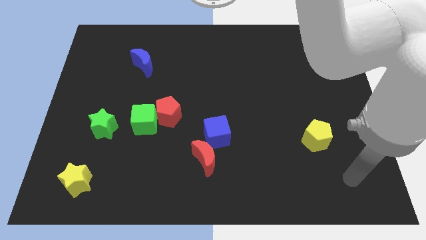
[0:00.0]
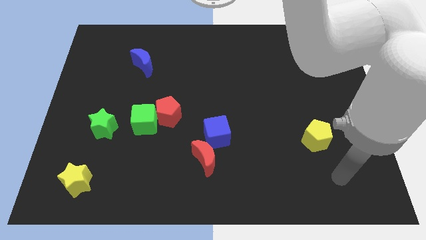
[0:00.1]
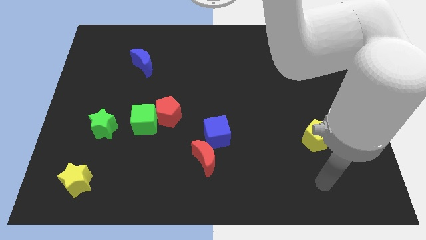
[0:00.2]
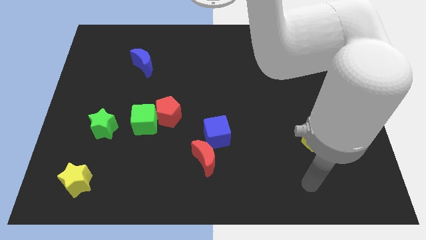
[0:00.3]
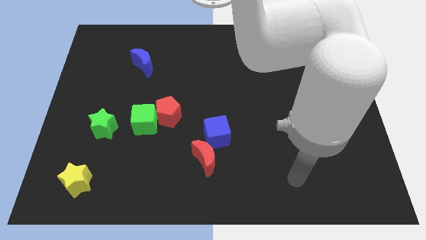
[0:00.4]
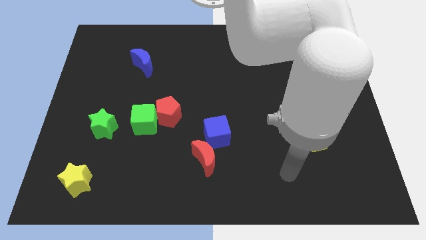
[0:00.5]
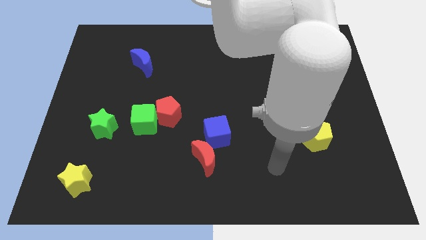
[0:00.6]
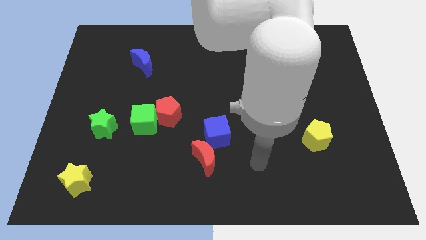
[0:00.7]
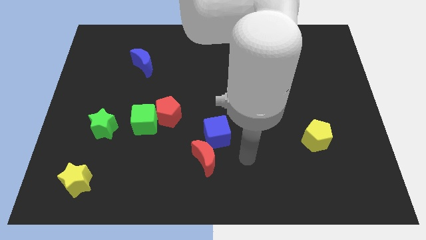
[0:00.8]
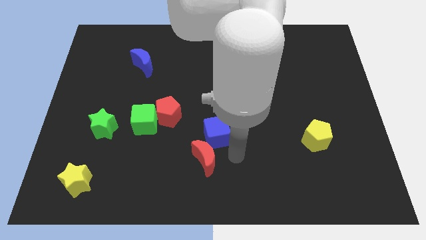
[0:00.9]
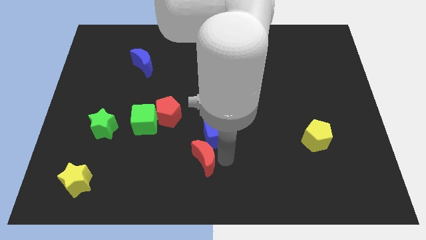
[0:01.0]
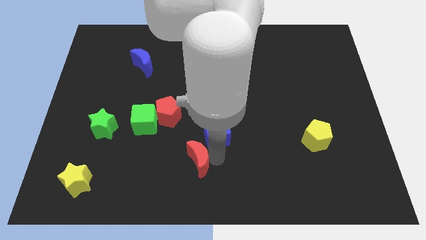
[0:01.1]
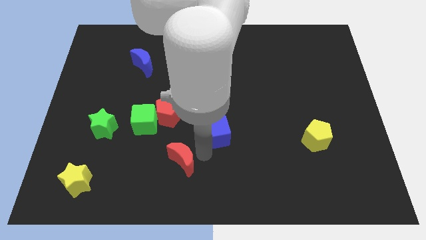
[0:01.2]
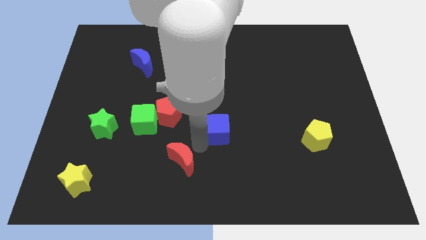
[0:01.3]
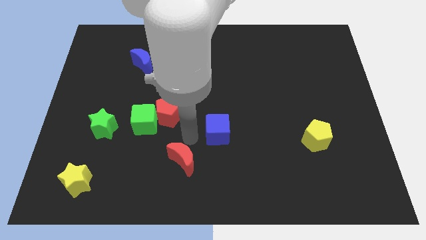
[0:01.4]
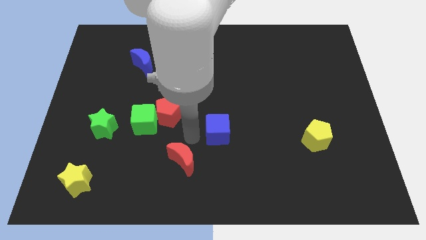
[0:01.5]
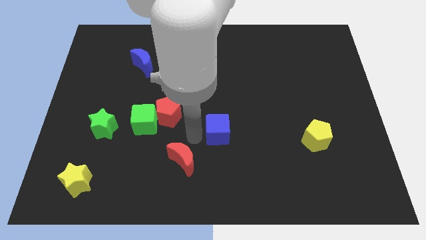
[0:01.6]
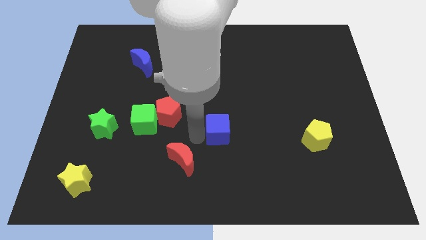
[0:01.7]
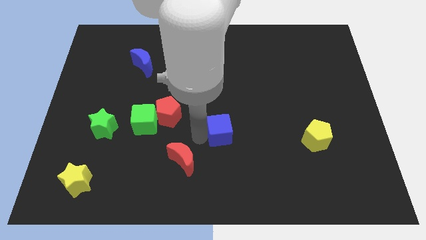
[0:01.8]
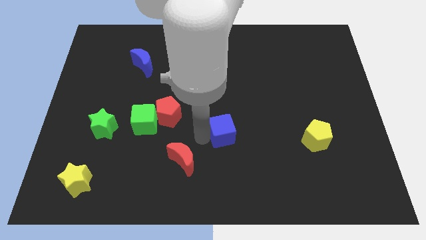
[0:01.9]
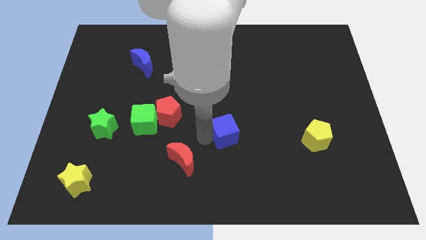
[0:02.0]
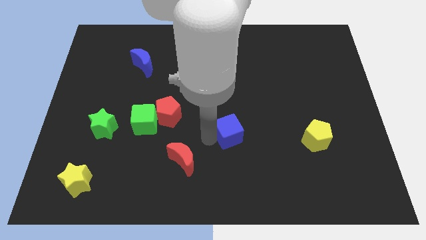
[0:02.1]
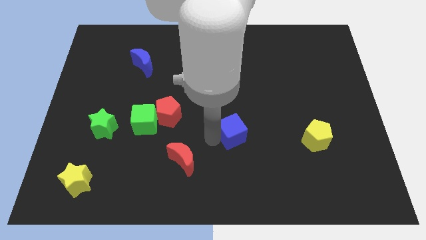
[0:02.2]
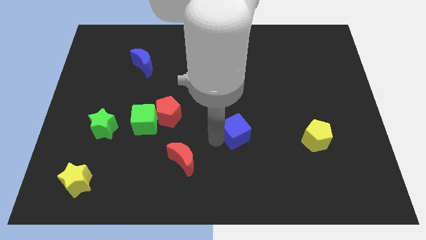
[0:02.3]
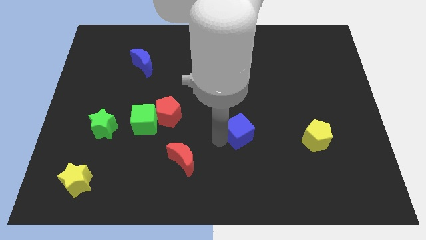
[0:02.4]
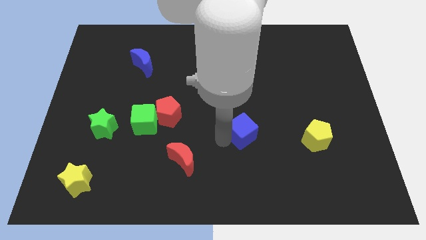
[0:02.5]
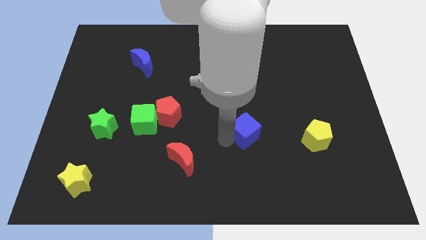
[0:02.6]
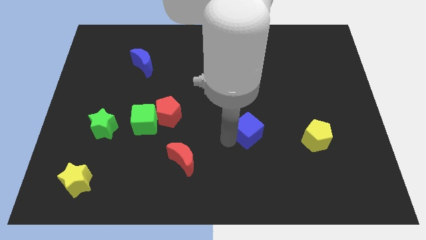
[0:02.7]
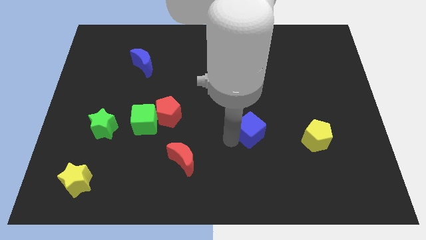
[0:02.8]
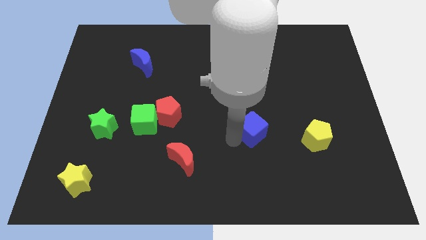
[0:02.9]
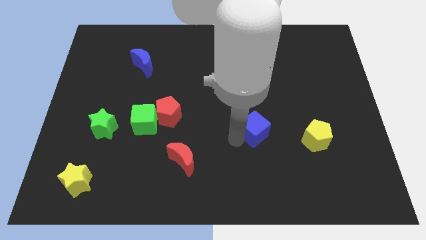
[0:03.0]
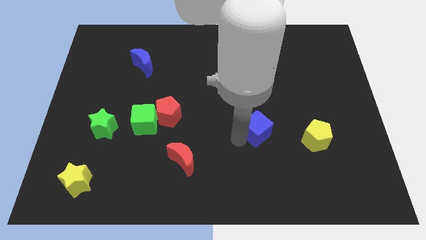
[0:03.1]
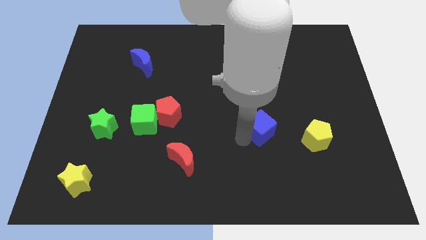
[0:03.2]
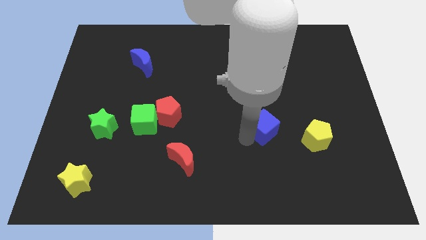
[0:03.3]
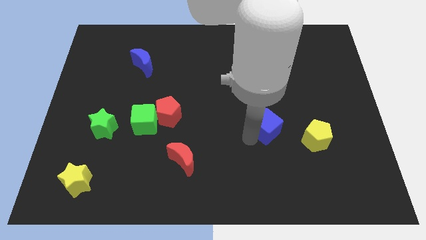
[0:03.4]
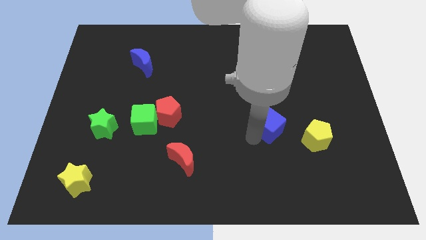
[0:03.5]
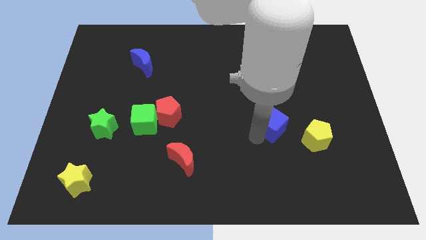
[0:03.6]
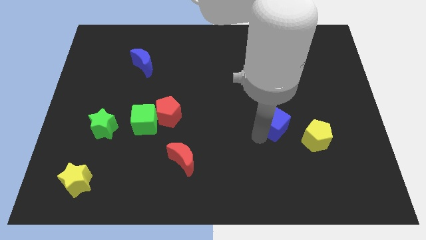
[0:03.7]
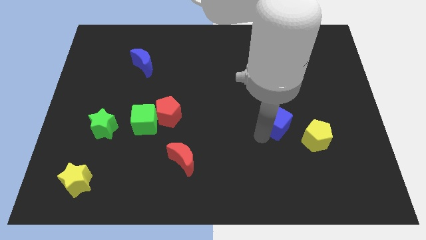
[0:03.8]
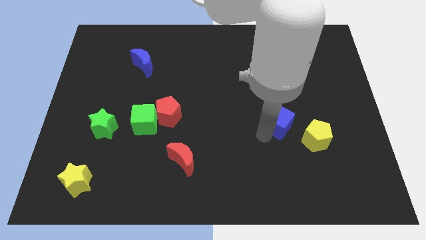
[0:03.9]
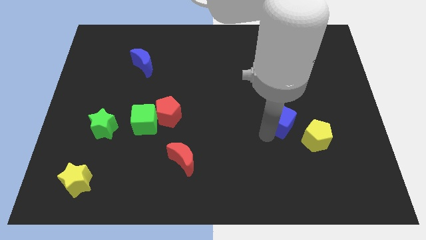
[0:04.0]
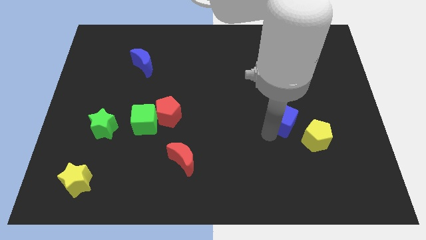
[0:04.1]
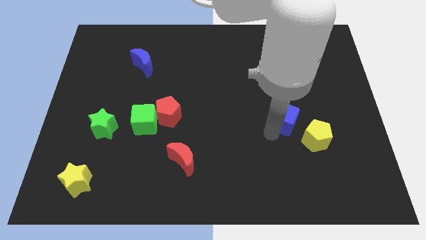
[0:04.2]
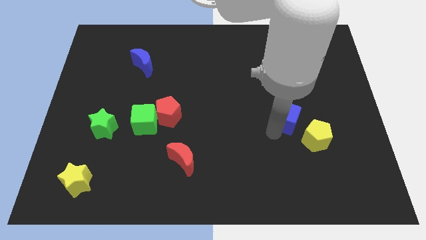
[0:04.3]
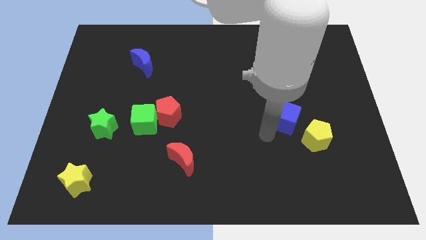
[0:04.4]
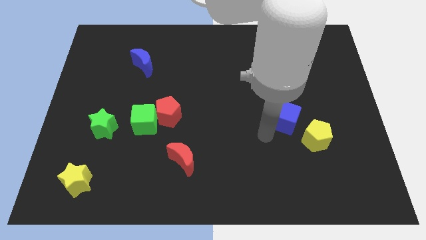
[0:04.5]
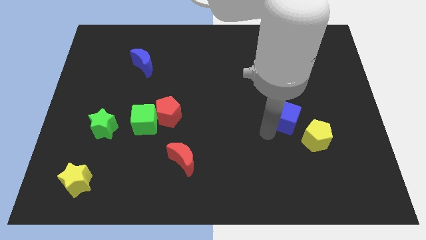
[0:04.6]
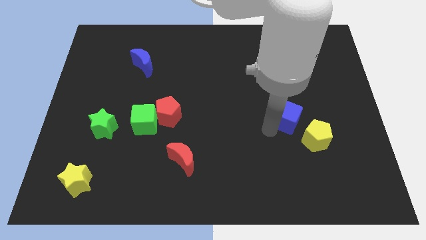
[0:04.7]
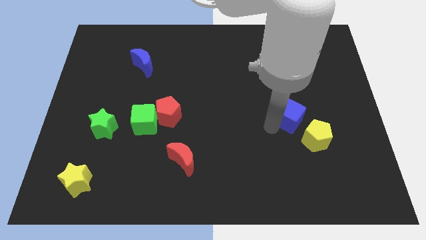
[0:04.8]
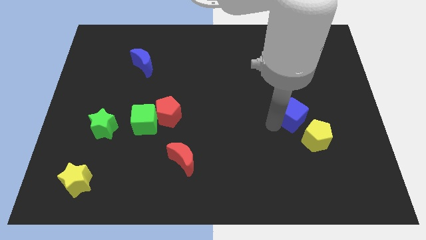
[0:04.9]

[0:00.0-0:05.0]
put the blue cube to the top of the yellow pentagon

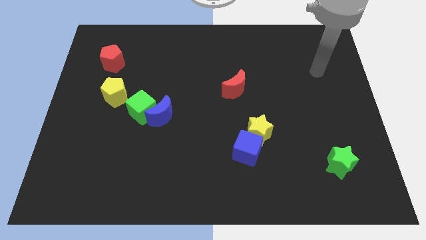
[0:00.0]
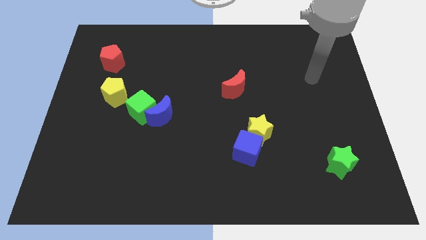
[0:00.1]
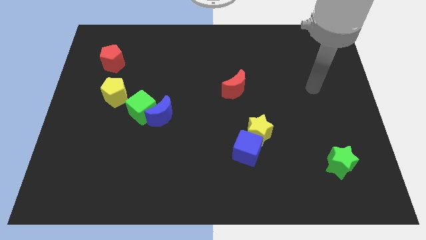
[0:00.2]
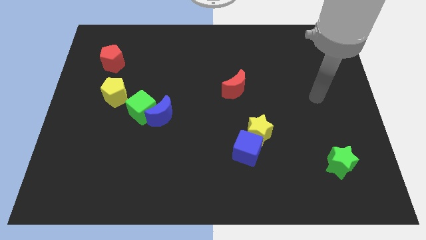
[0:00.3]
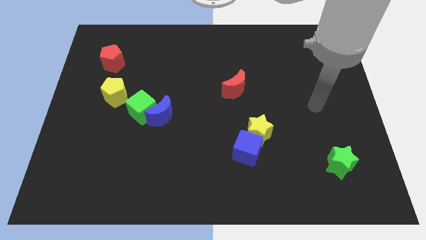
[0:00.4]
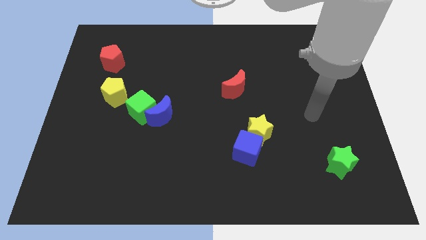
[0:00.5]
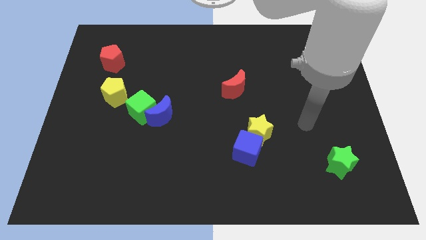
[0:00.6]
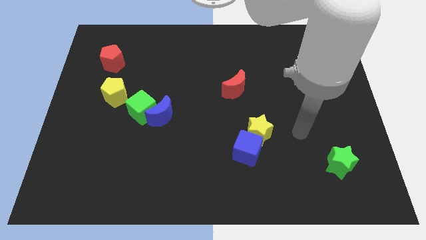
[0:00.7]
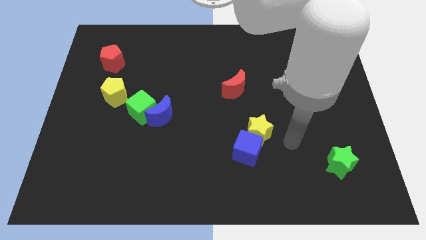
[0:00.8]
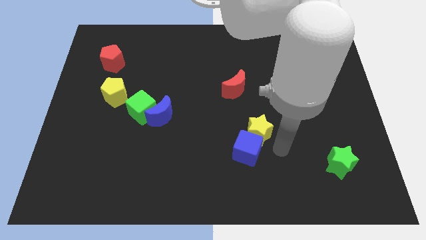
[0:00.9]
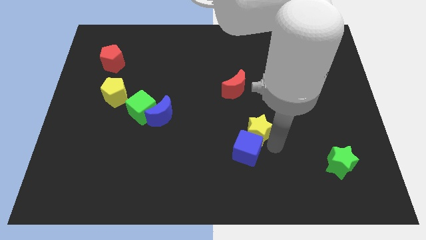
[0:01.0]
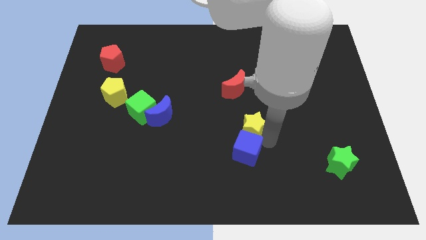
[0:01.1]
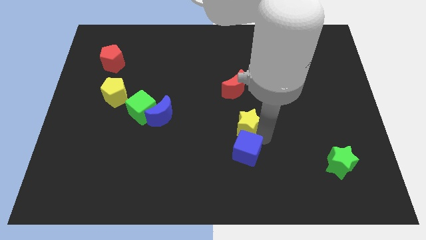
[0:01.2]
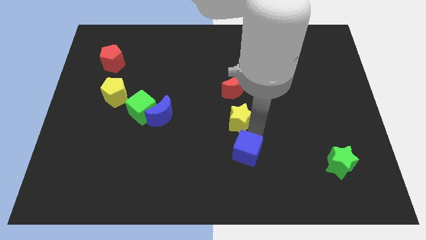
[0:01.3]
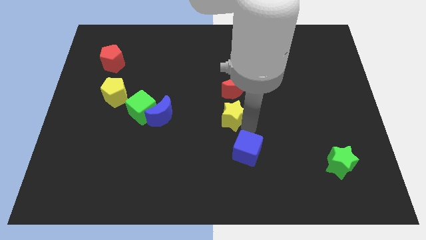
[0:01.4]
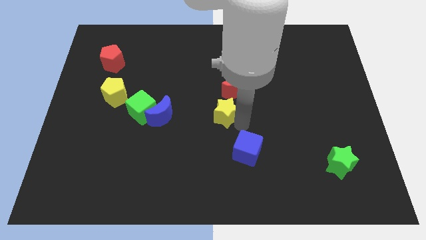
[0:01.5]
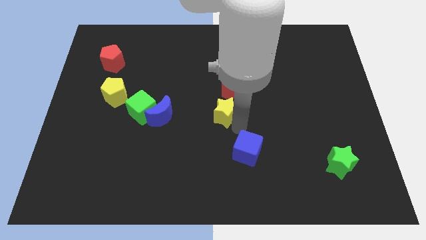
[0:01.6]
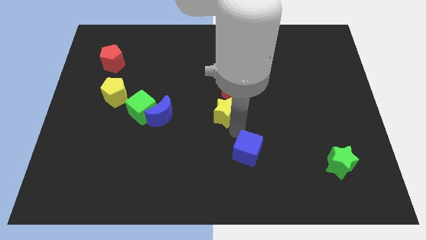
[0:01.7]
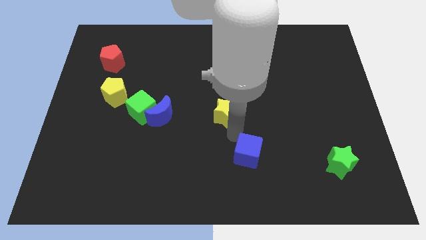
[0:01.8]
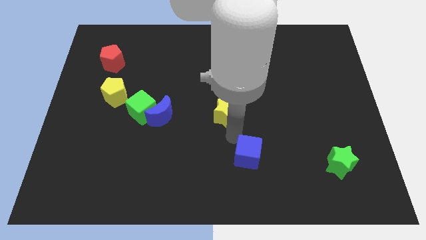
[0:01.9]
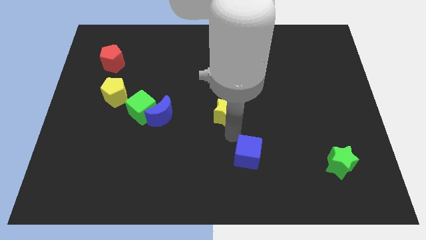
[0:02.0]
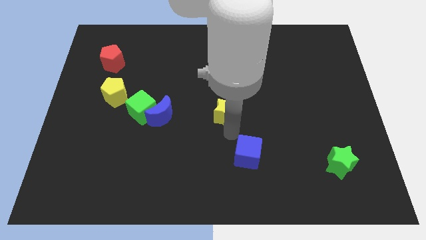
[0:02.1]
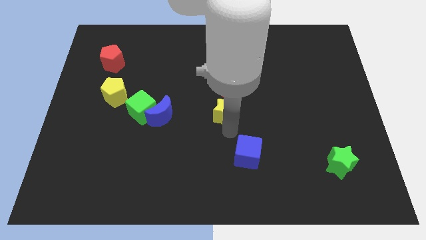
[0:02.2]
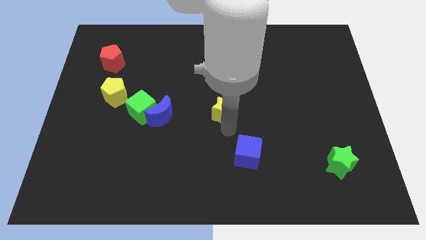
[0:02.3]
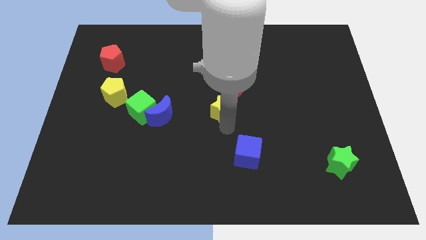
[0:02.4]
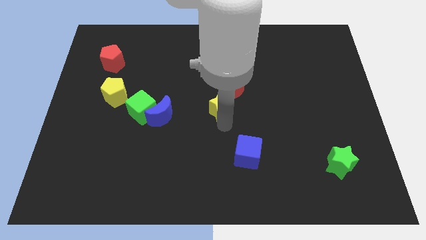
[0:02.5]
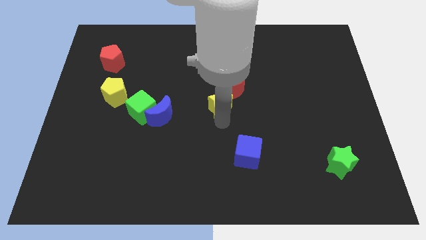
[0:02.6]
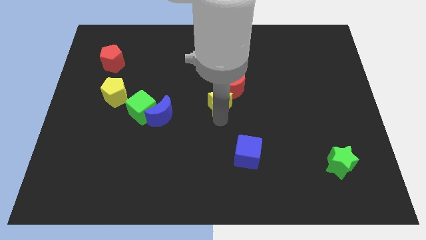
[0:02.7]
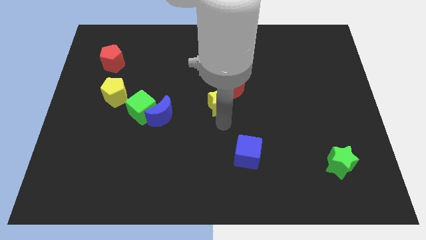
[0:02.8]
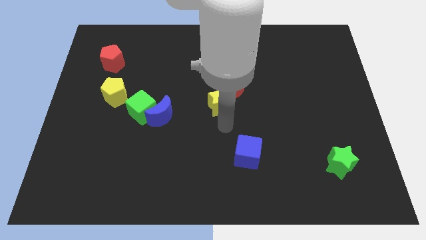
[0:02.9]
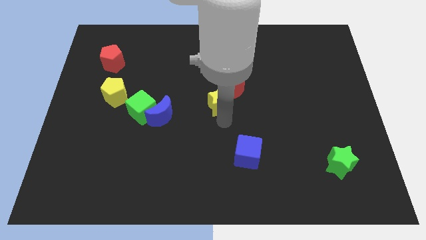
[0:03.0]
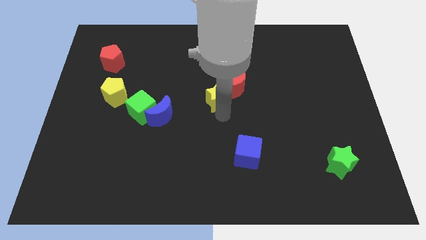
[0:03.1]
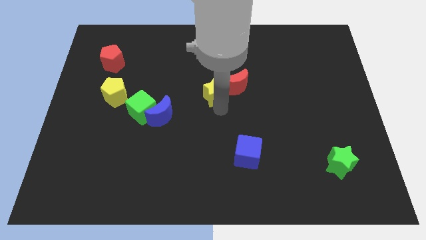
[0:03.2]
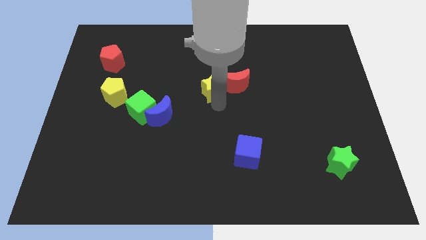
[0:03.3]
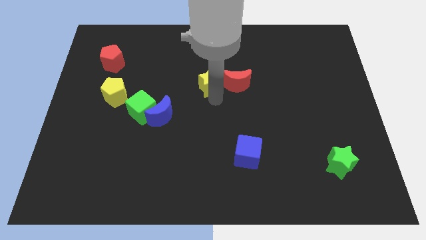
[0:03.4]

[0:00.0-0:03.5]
move the yellow star to the top left of the red moon
